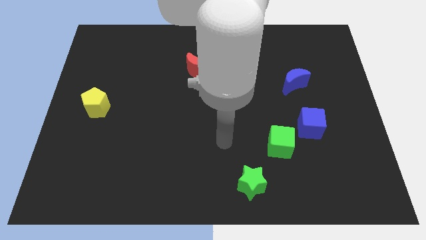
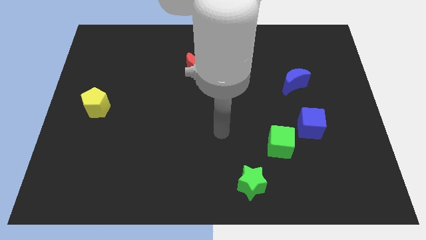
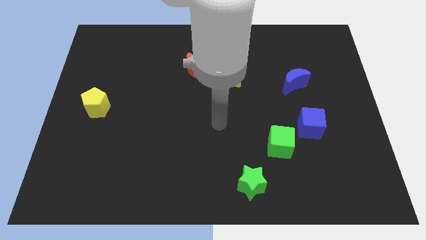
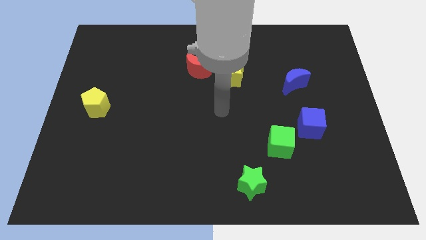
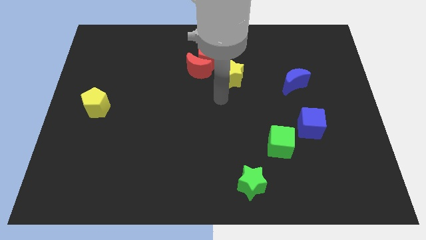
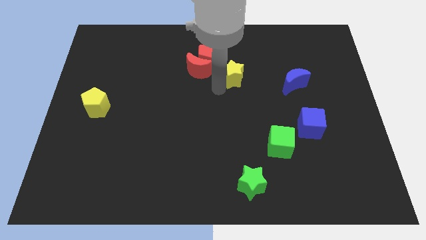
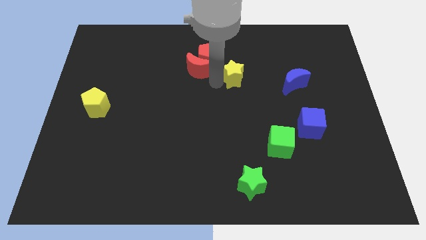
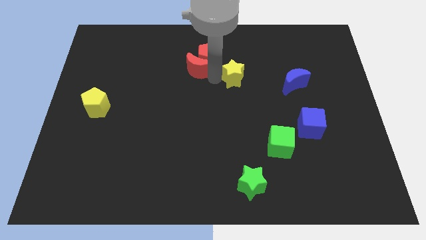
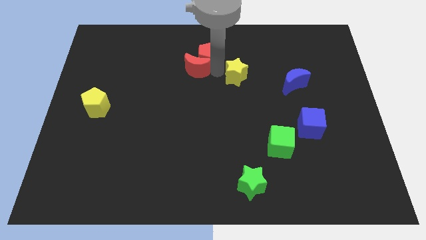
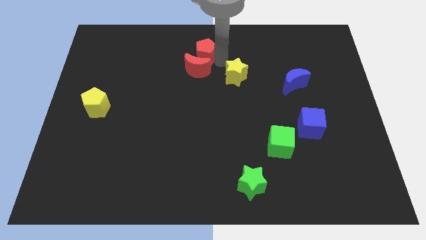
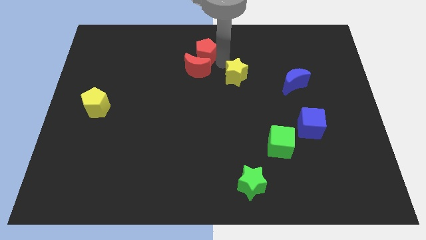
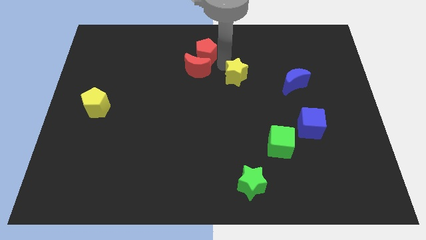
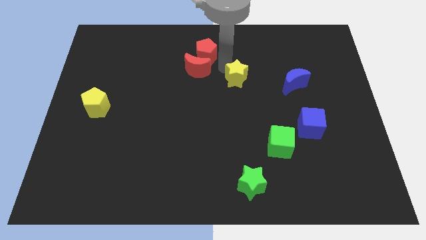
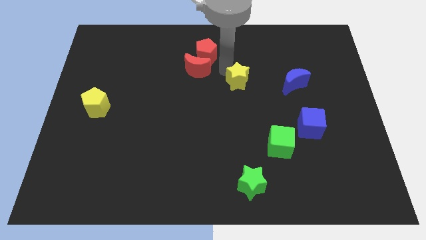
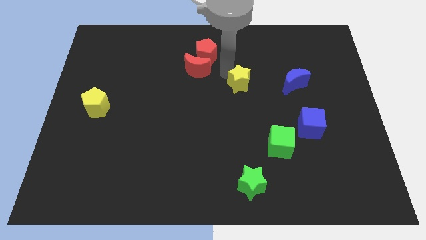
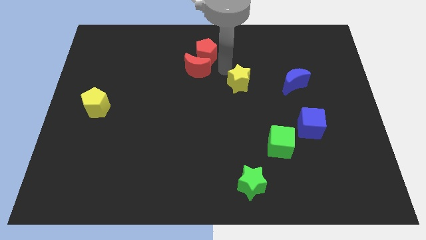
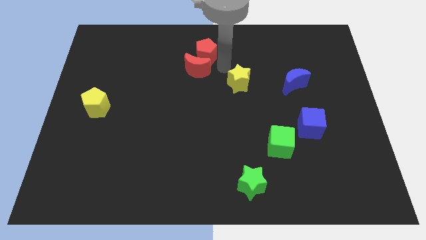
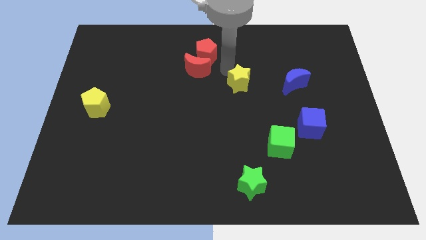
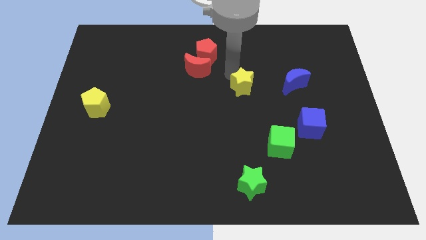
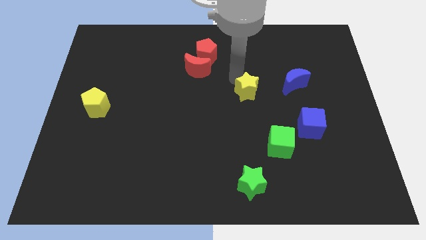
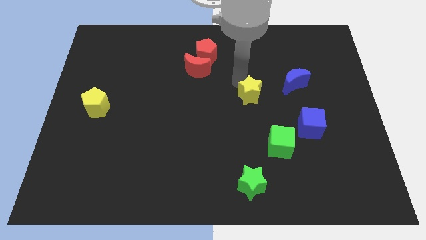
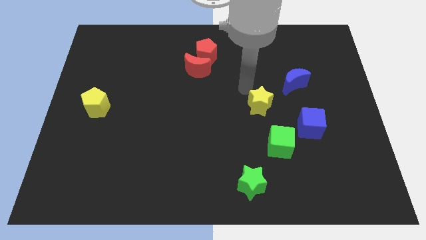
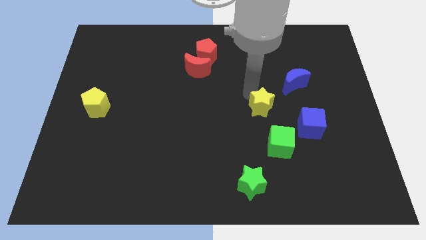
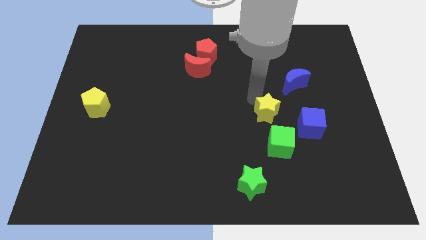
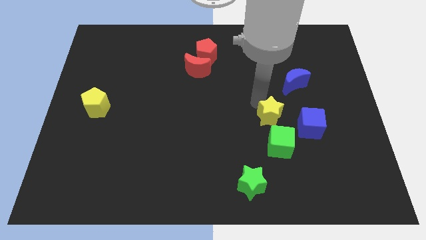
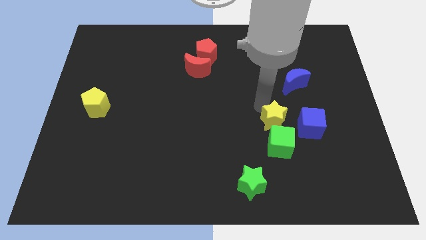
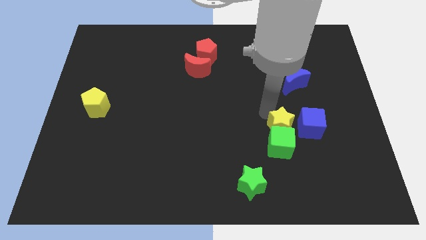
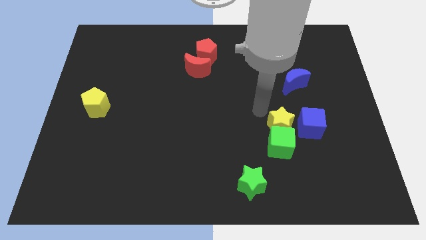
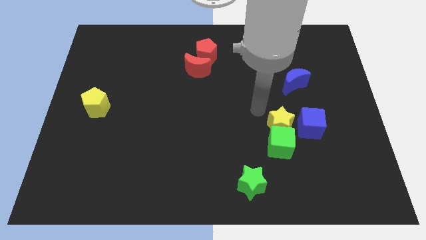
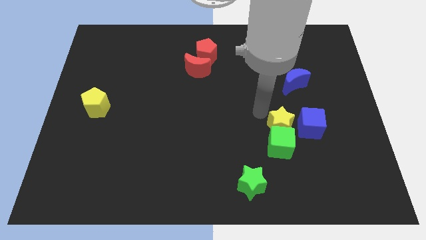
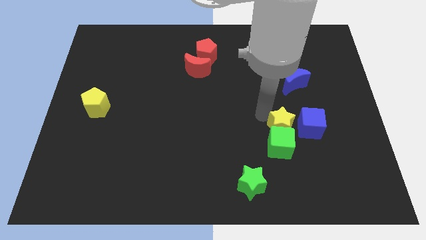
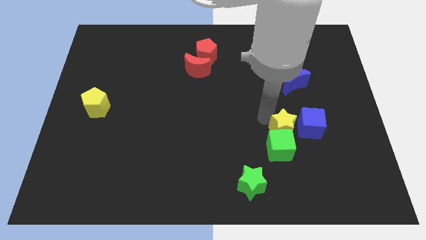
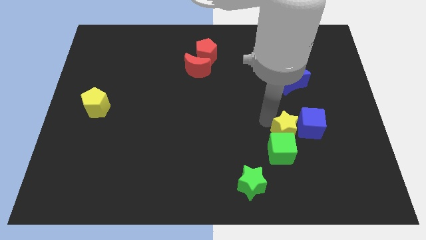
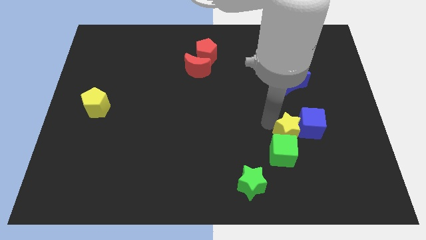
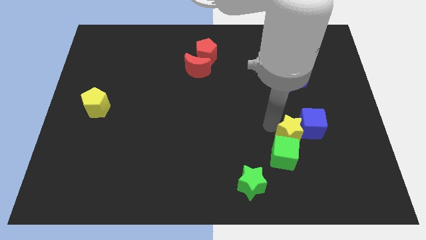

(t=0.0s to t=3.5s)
move the yellow star downwards and then right

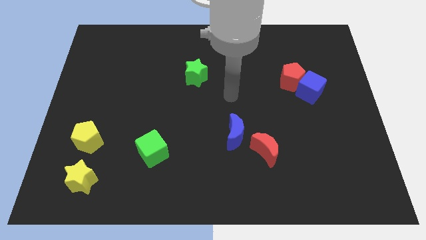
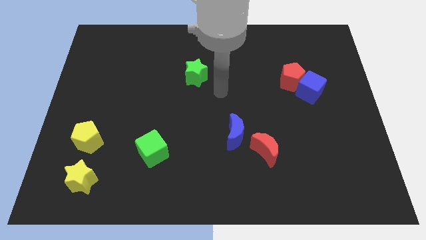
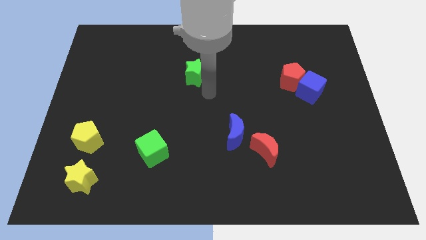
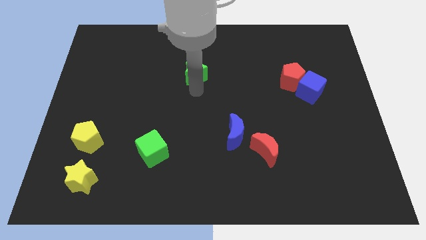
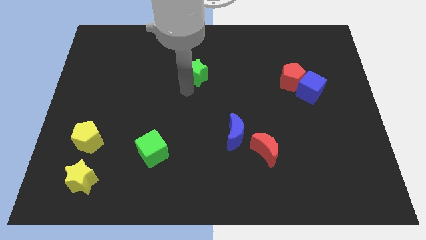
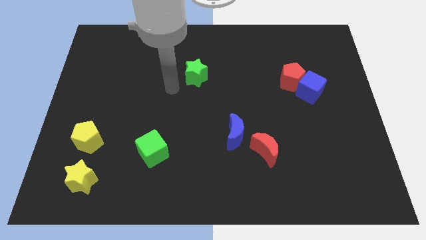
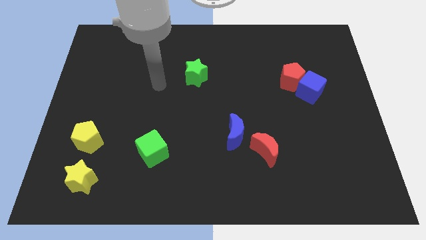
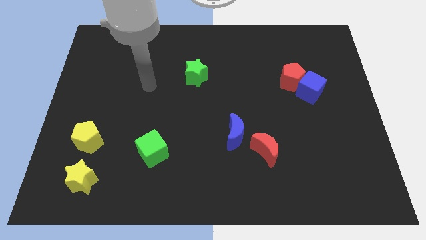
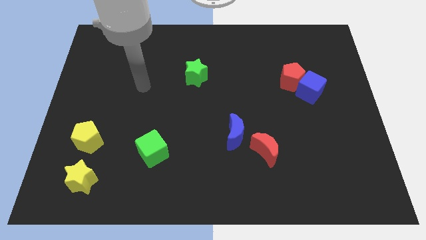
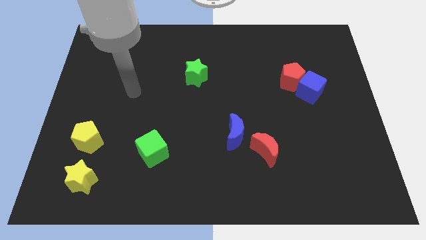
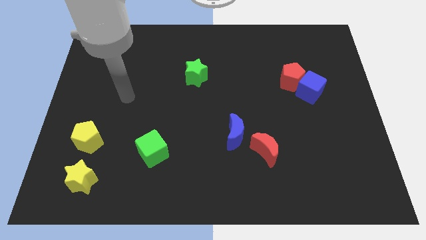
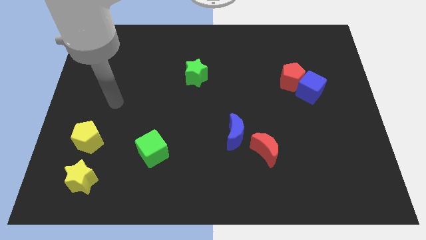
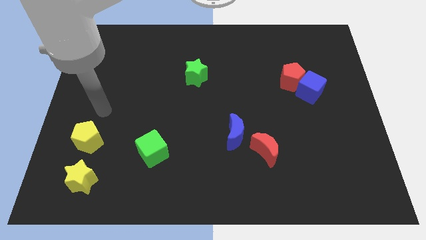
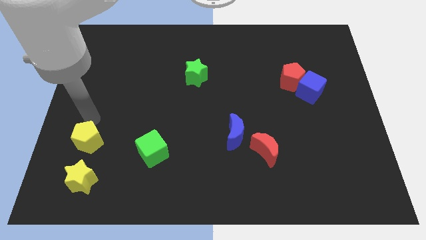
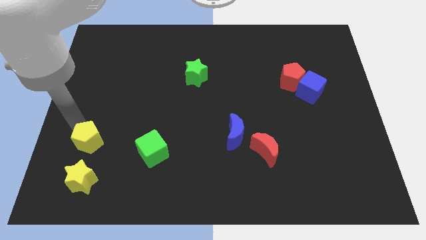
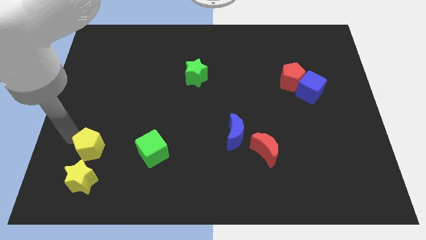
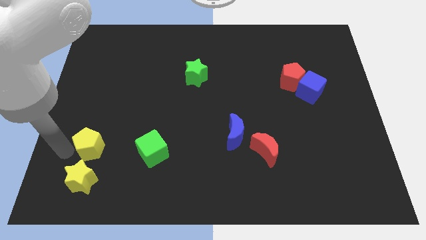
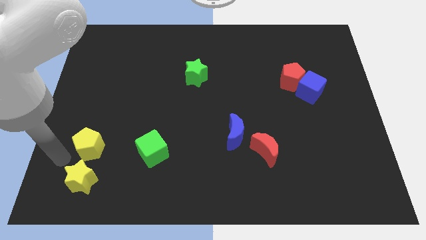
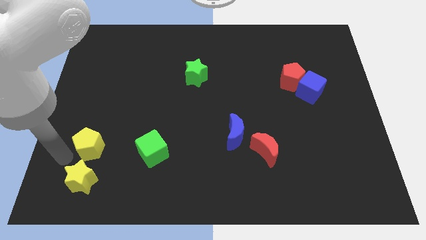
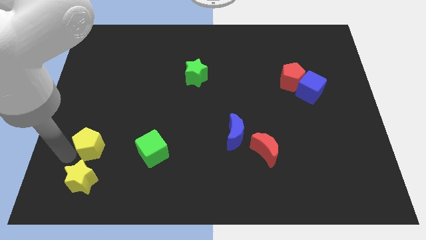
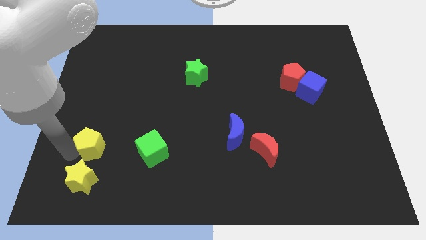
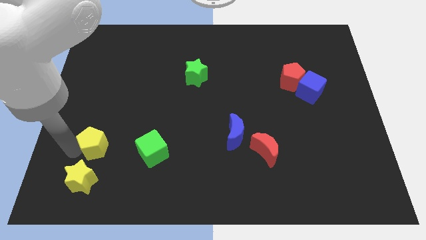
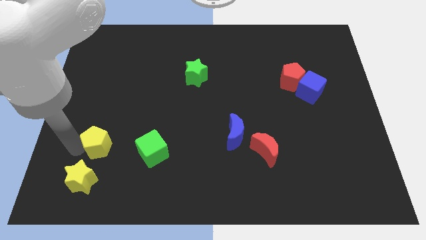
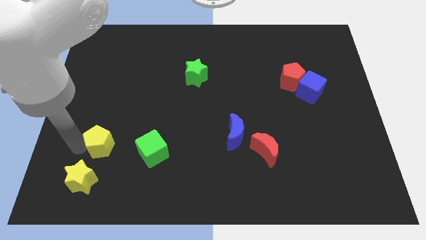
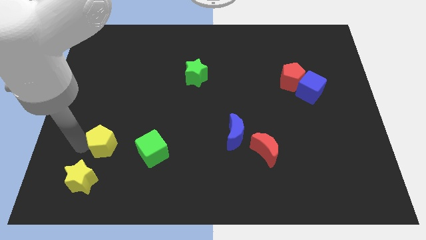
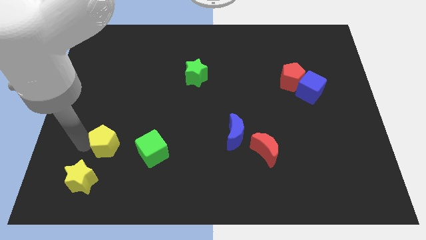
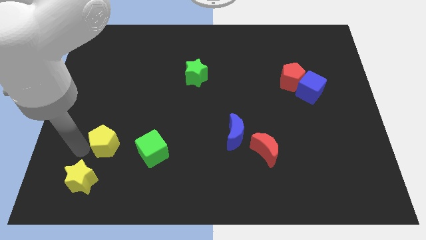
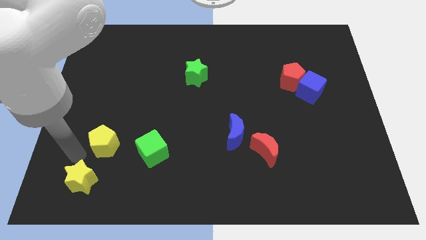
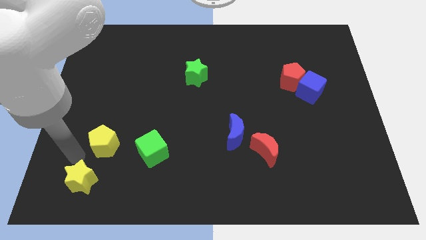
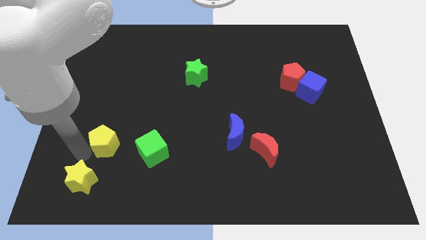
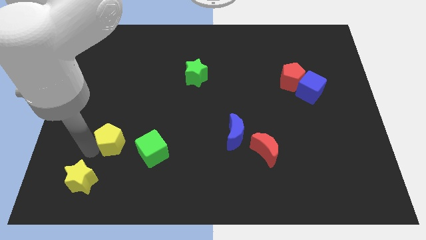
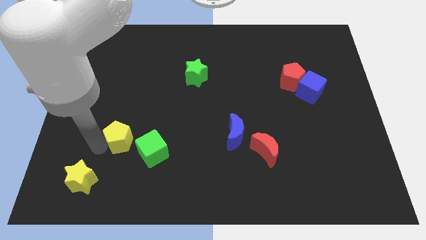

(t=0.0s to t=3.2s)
slightly push the yellow pentagon to the right

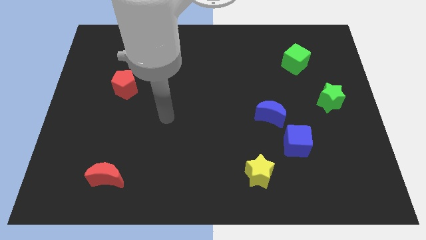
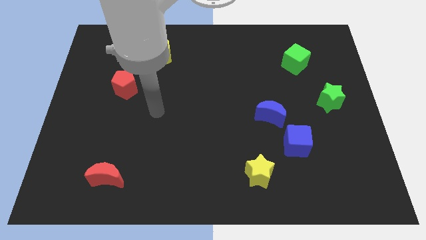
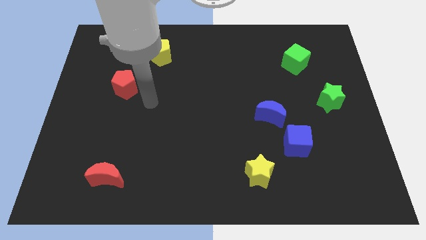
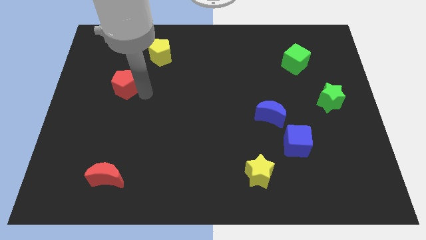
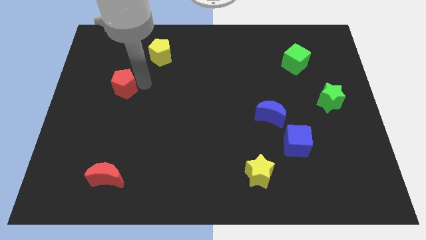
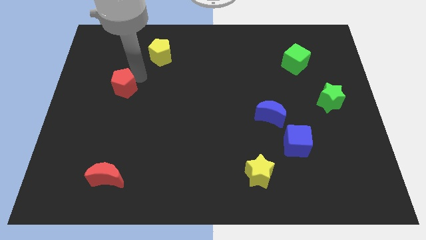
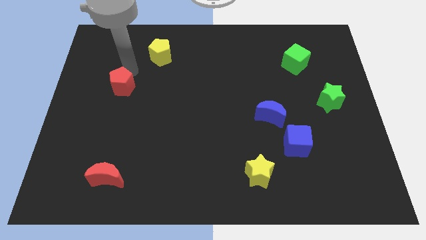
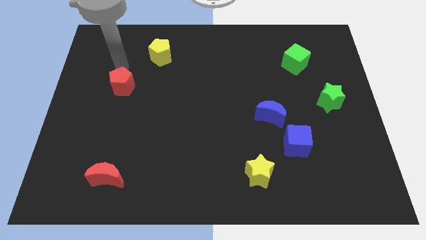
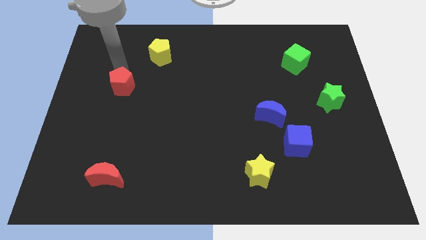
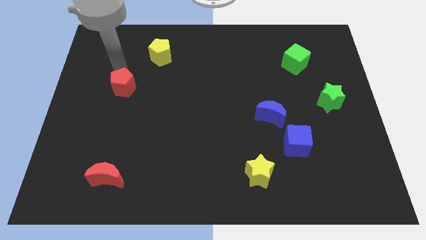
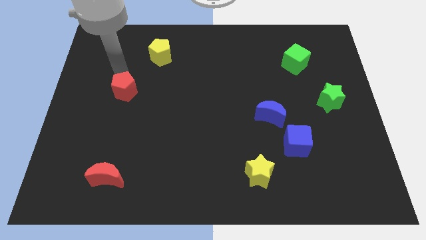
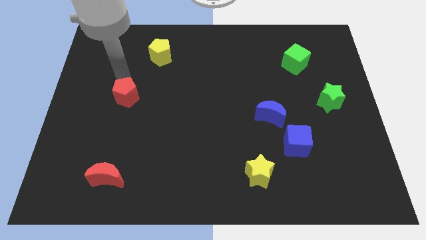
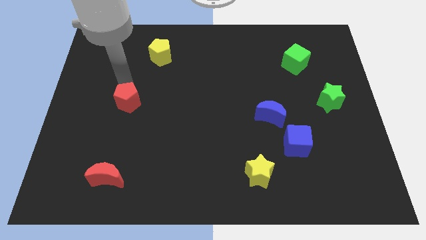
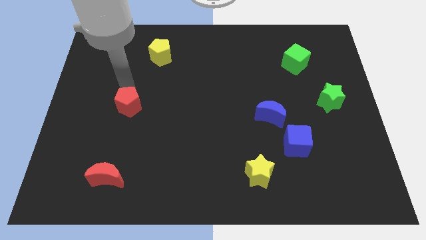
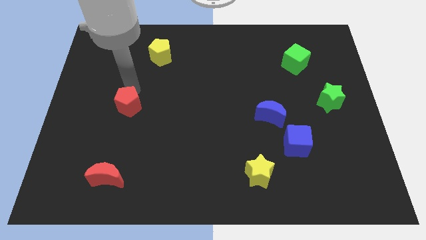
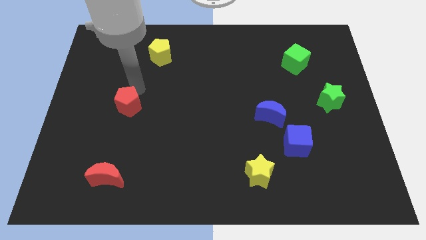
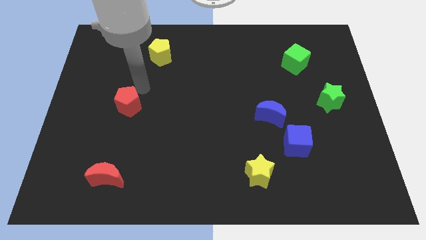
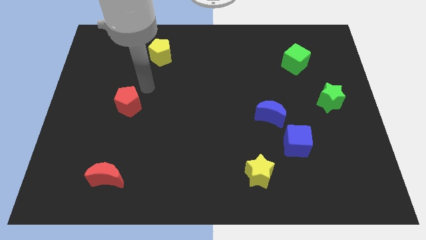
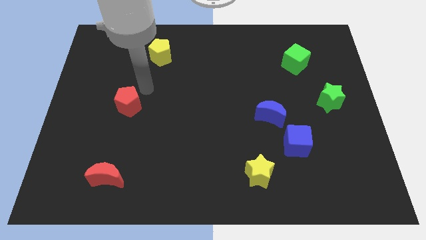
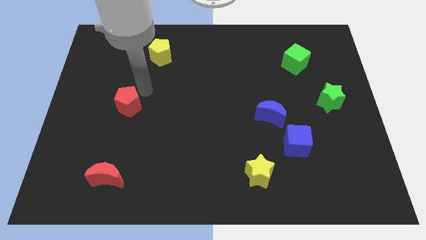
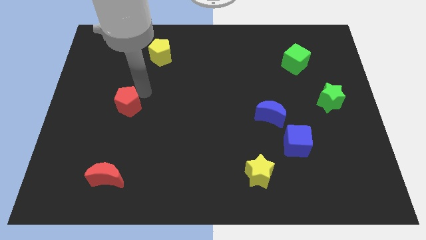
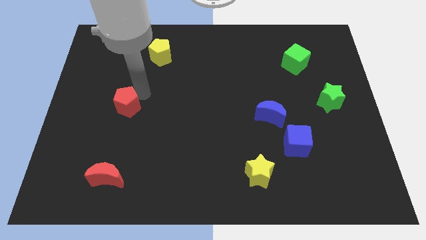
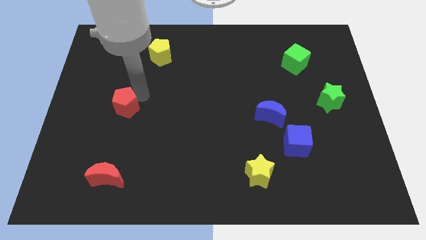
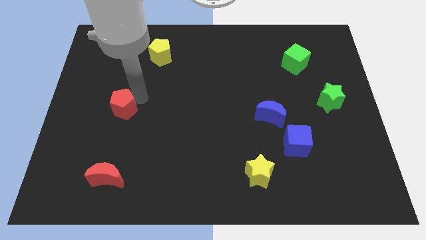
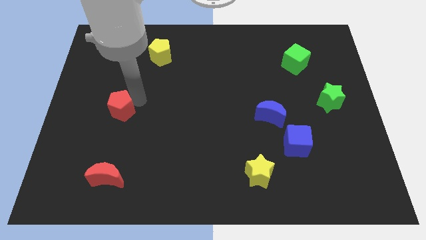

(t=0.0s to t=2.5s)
push the red pentagon down somewhat
